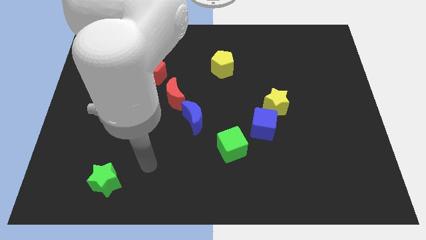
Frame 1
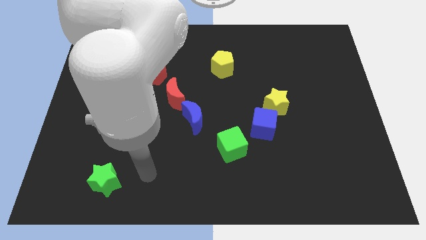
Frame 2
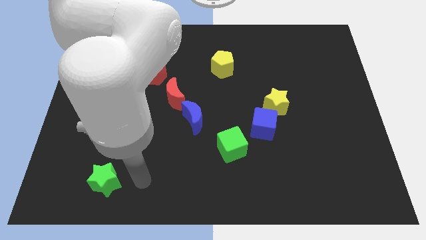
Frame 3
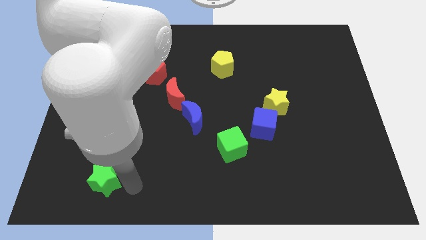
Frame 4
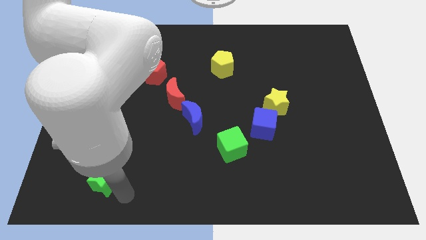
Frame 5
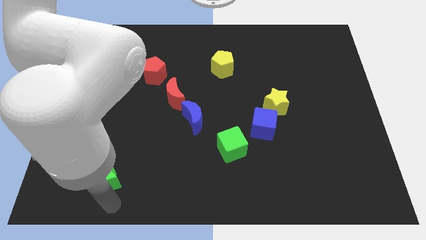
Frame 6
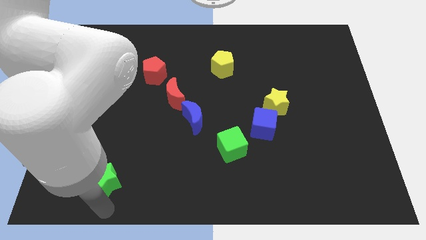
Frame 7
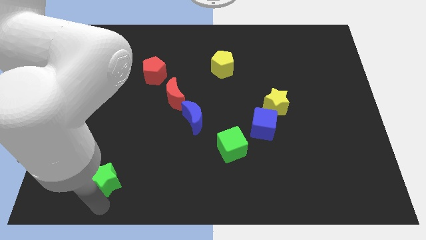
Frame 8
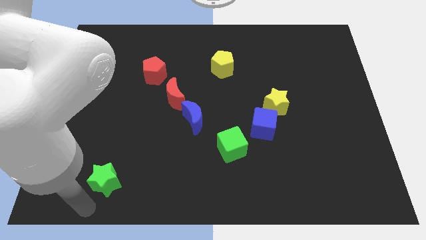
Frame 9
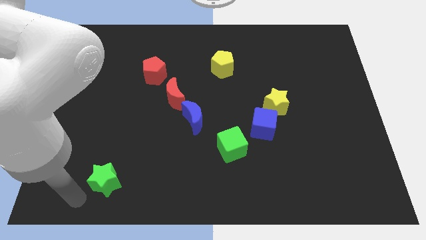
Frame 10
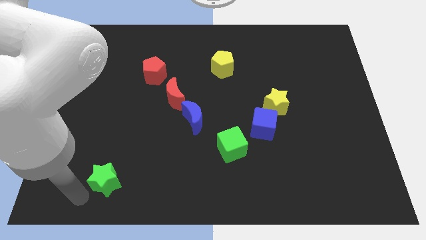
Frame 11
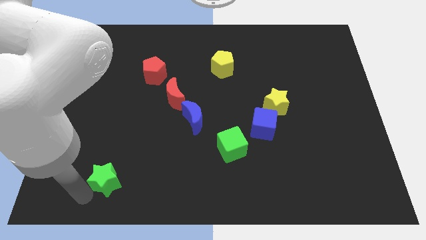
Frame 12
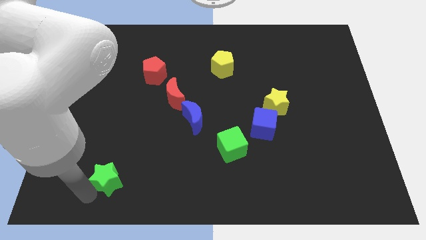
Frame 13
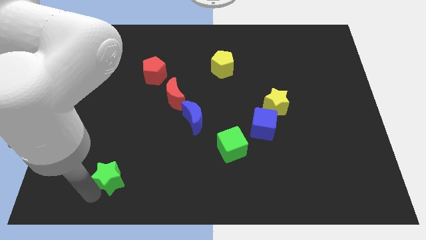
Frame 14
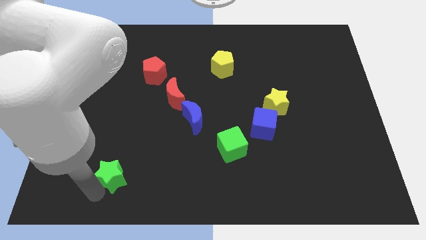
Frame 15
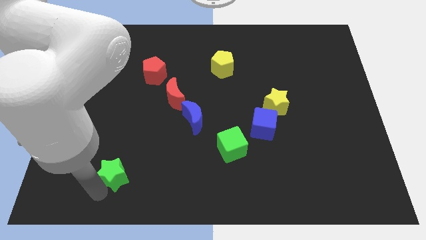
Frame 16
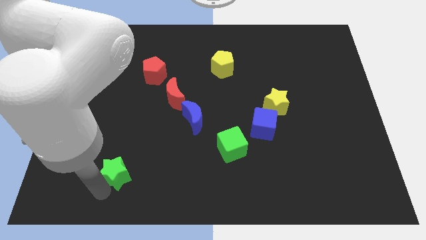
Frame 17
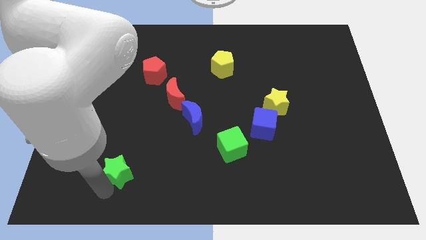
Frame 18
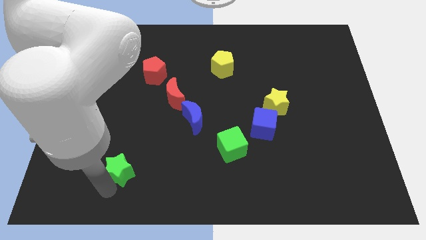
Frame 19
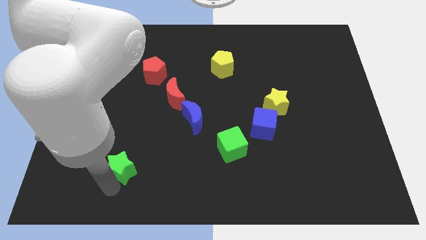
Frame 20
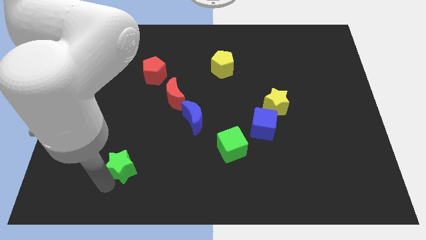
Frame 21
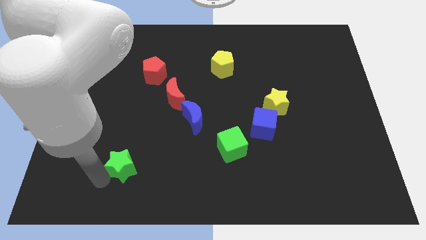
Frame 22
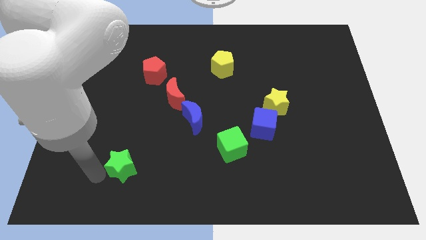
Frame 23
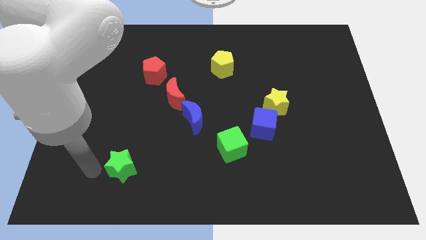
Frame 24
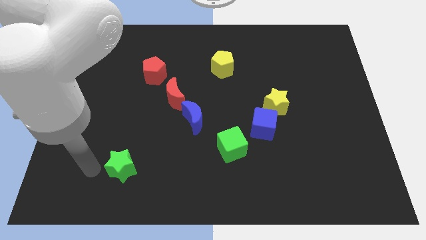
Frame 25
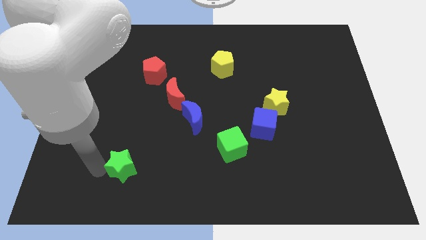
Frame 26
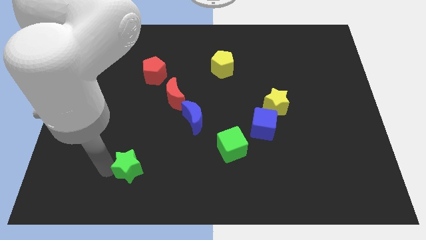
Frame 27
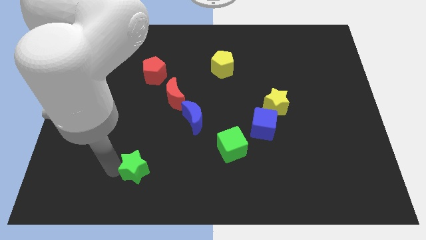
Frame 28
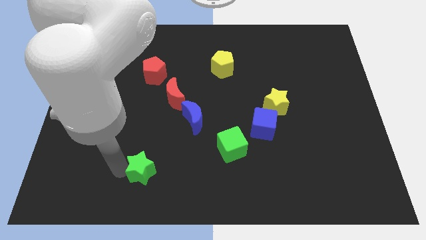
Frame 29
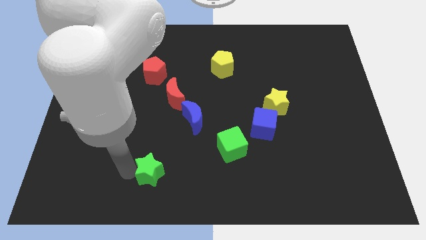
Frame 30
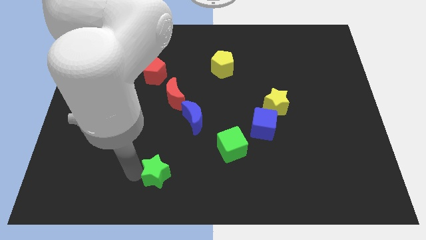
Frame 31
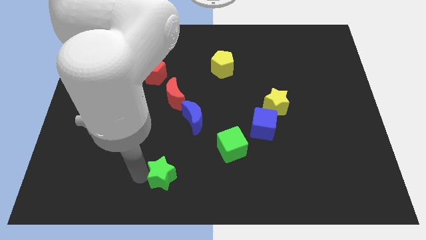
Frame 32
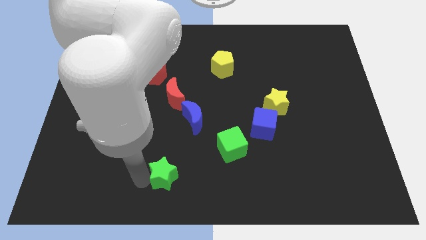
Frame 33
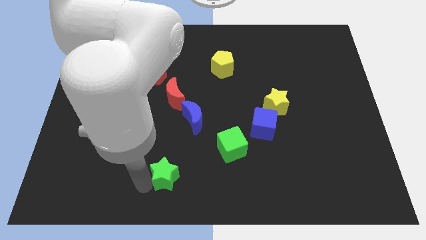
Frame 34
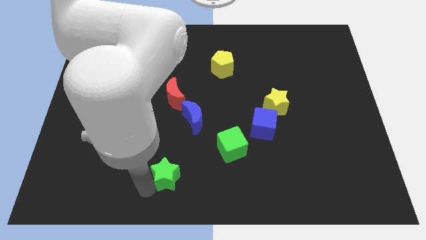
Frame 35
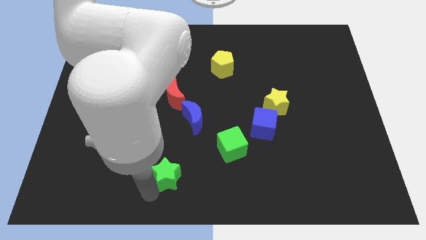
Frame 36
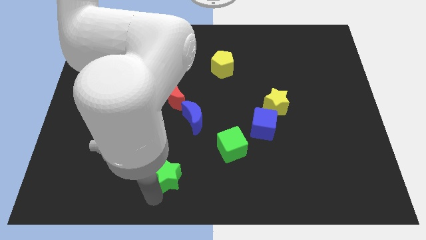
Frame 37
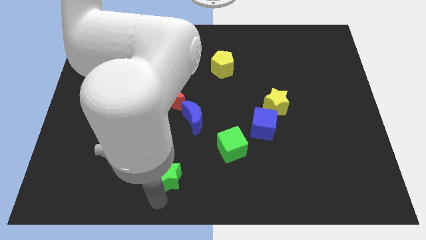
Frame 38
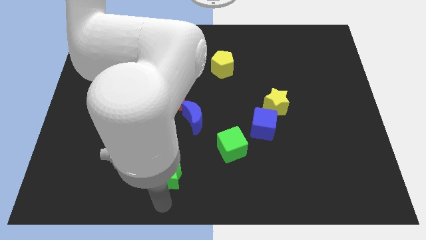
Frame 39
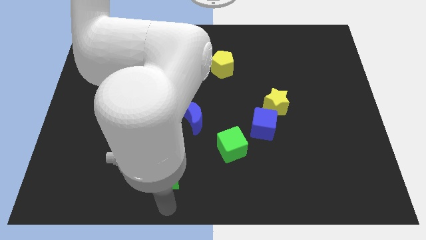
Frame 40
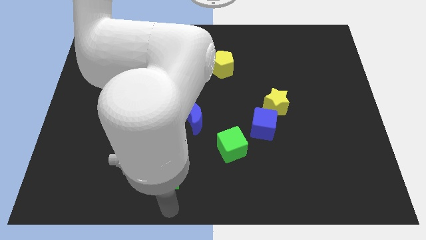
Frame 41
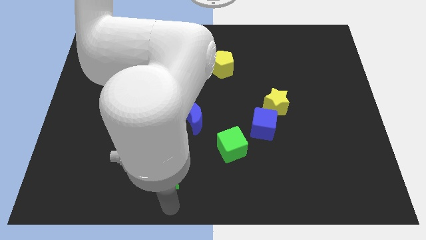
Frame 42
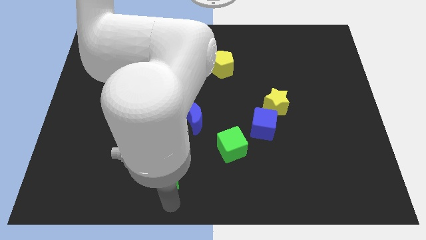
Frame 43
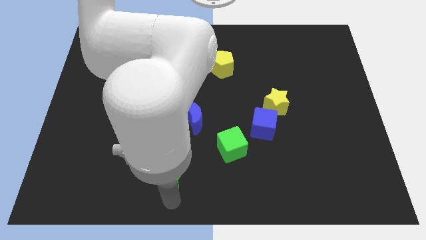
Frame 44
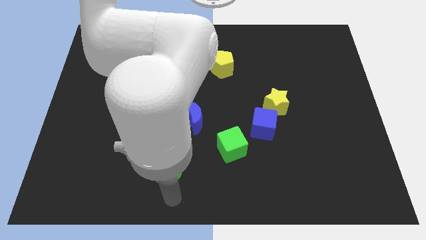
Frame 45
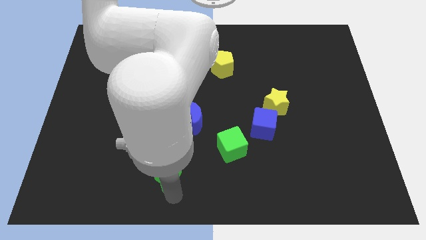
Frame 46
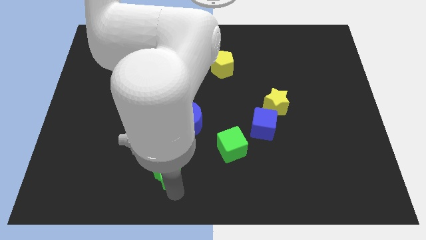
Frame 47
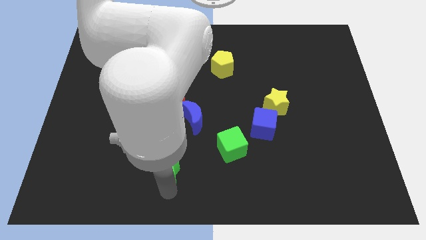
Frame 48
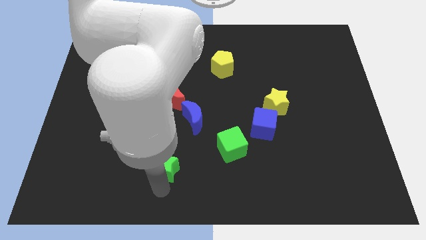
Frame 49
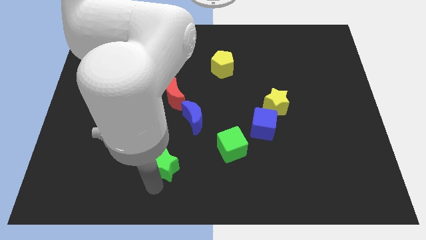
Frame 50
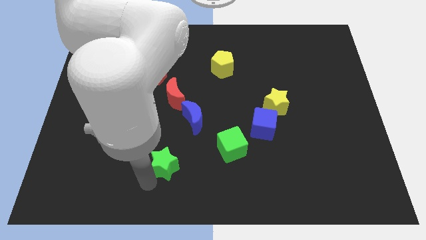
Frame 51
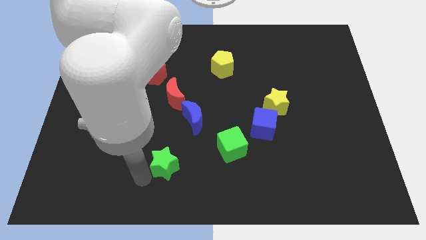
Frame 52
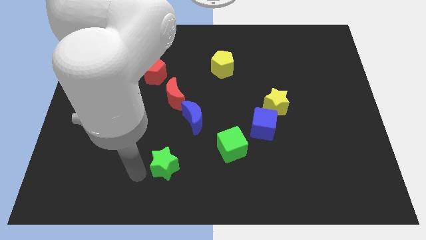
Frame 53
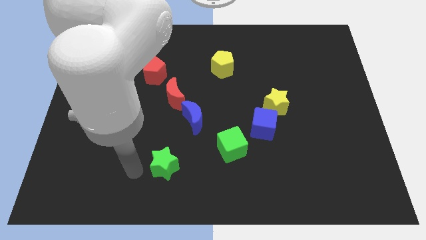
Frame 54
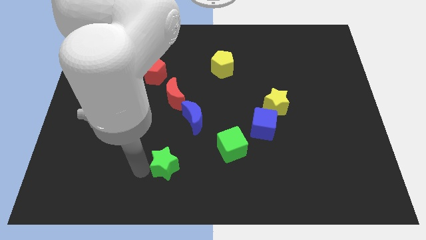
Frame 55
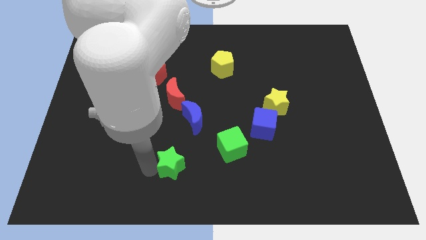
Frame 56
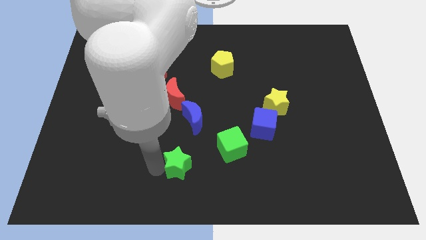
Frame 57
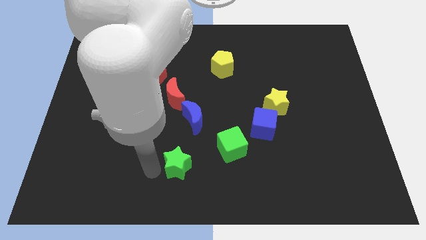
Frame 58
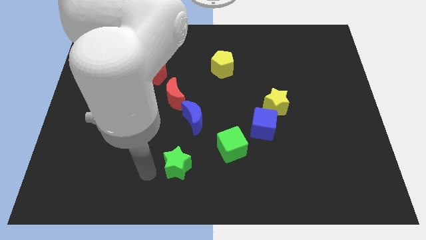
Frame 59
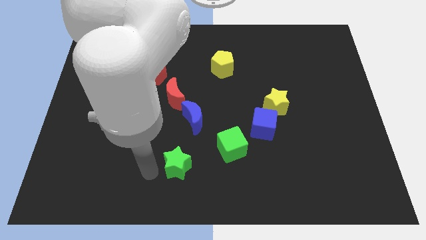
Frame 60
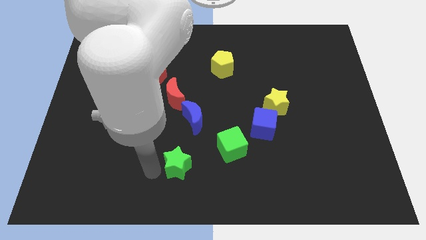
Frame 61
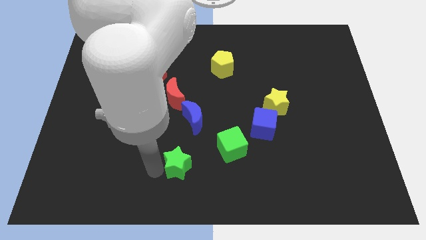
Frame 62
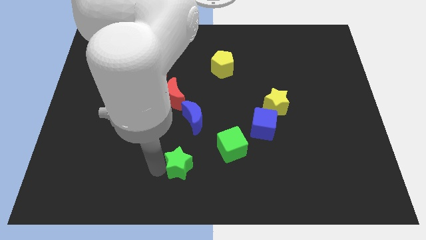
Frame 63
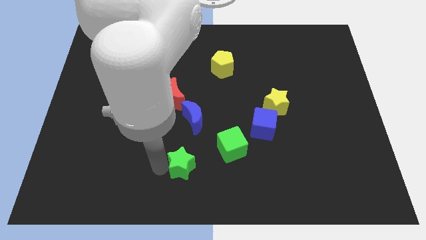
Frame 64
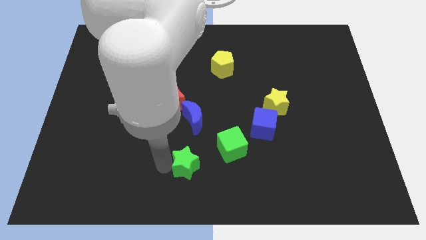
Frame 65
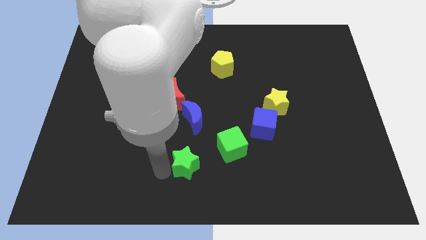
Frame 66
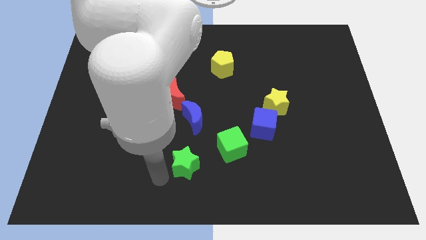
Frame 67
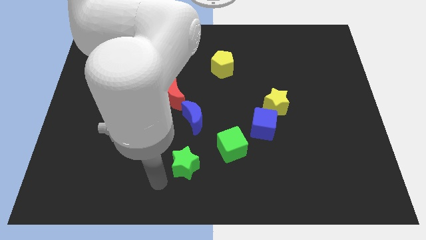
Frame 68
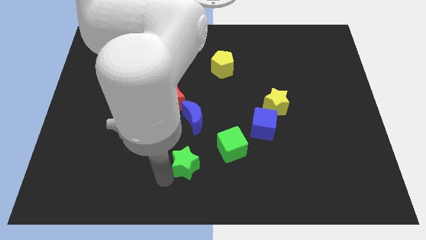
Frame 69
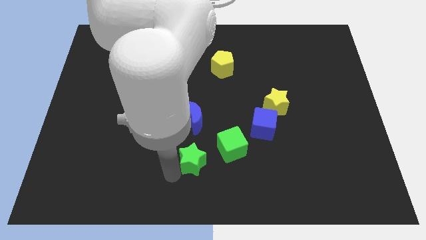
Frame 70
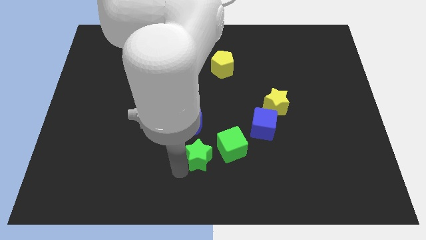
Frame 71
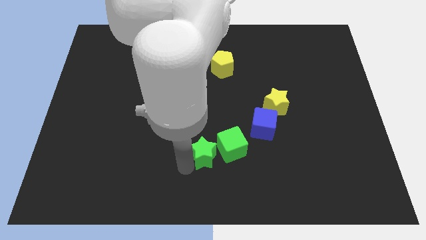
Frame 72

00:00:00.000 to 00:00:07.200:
push the green star towards the green cube
